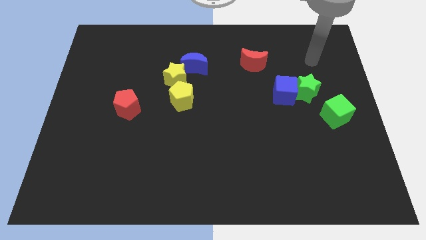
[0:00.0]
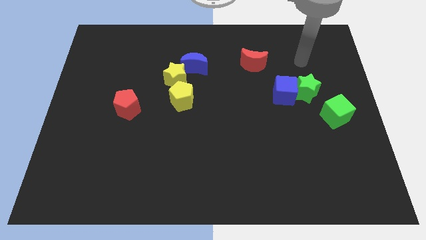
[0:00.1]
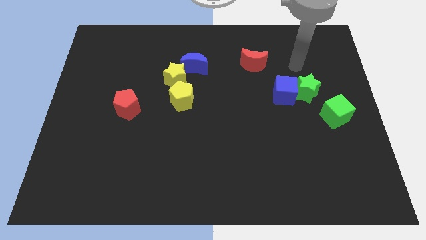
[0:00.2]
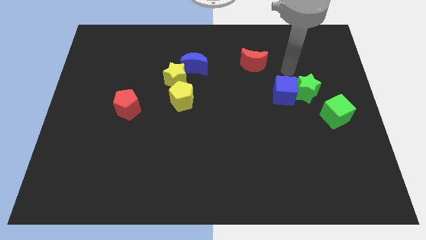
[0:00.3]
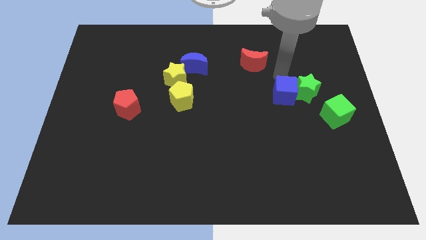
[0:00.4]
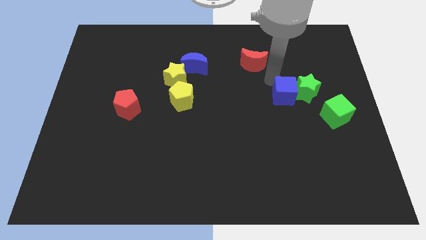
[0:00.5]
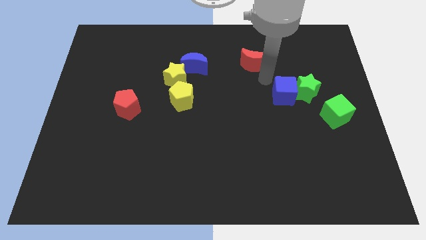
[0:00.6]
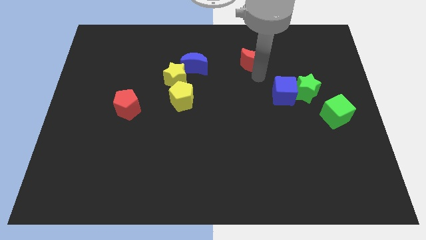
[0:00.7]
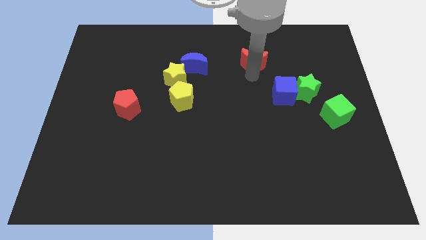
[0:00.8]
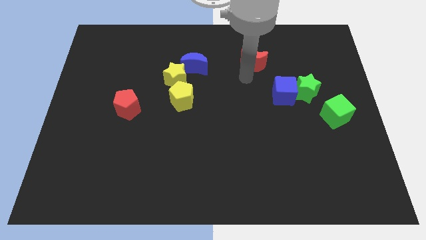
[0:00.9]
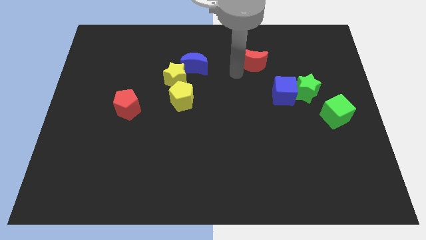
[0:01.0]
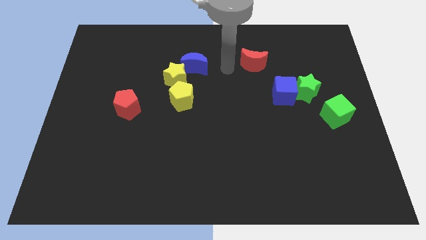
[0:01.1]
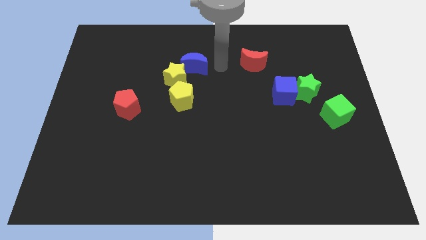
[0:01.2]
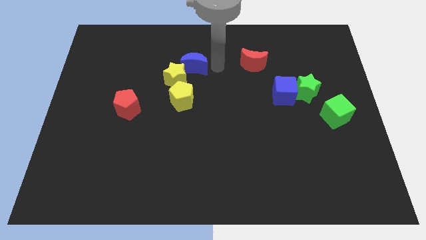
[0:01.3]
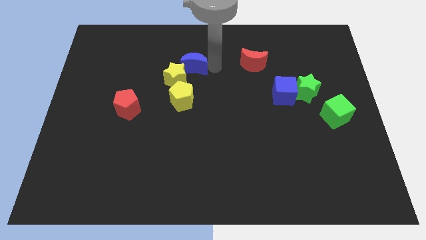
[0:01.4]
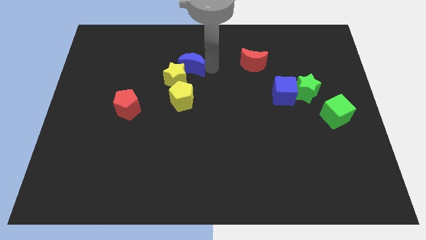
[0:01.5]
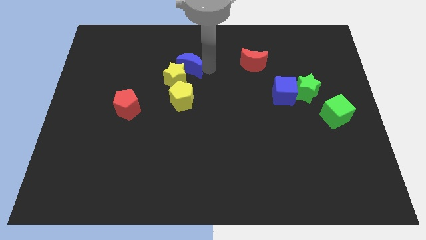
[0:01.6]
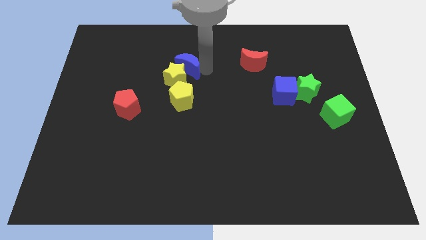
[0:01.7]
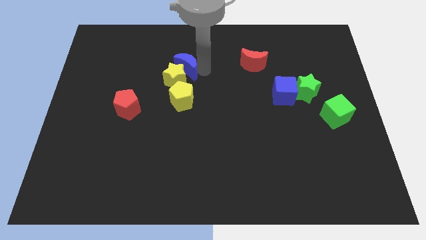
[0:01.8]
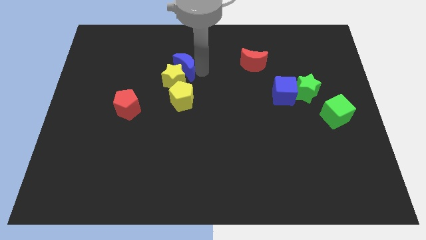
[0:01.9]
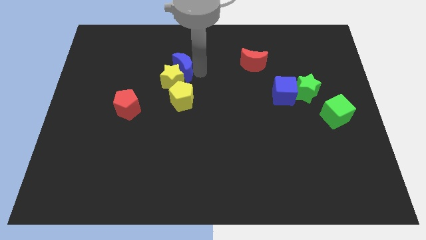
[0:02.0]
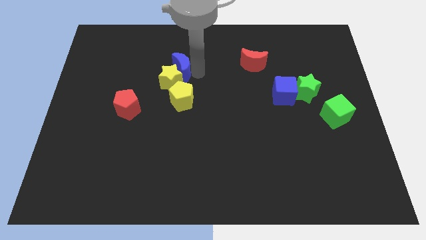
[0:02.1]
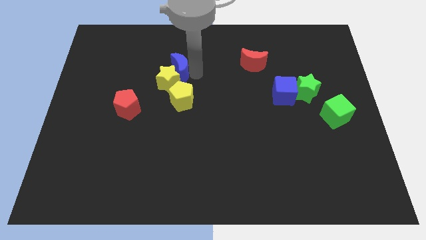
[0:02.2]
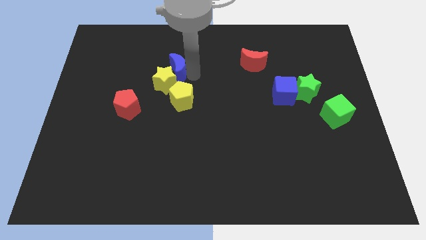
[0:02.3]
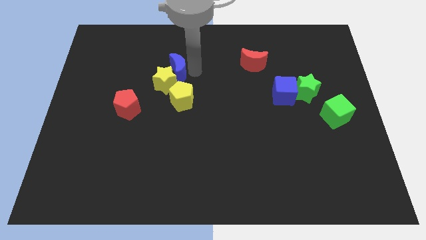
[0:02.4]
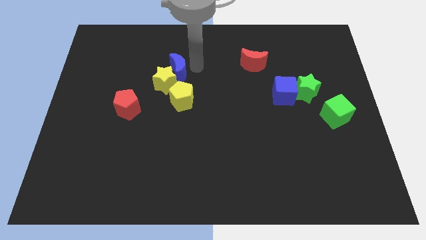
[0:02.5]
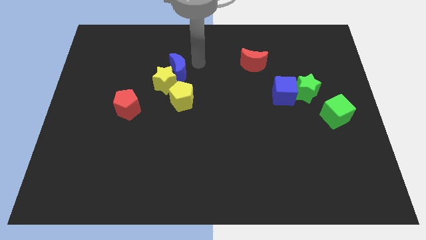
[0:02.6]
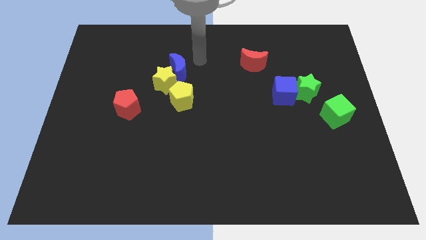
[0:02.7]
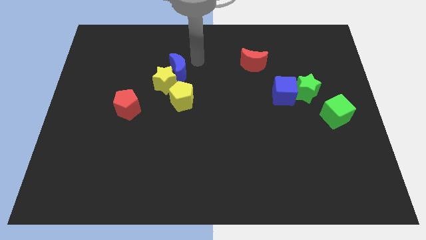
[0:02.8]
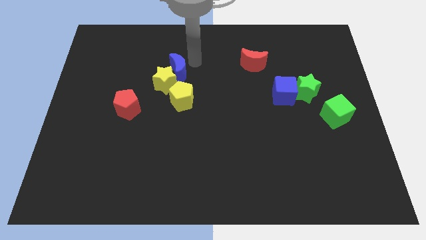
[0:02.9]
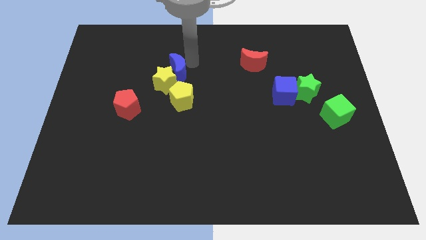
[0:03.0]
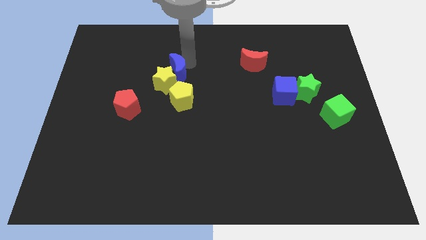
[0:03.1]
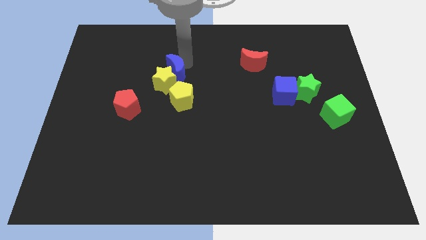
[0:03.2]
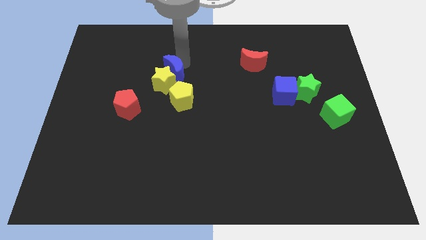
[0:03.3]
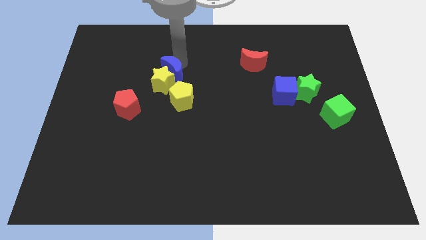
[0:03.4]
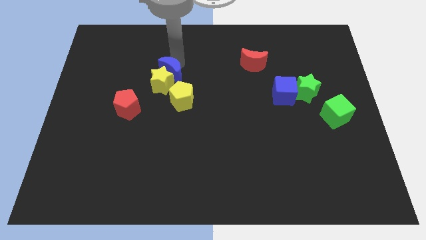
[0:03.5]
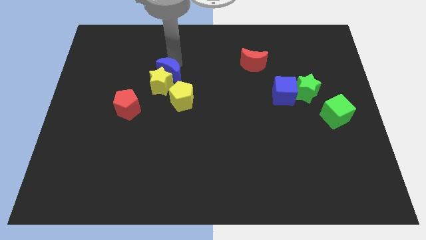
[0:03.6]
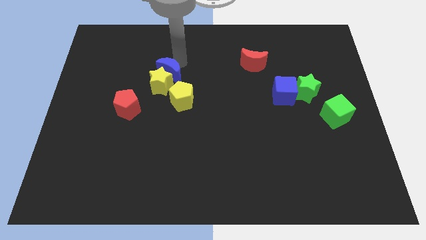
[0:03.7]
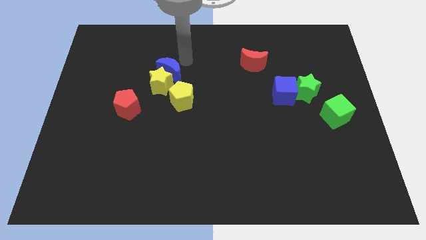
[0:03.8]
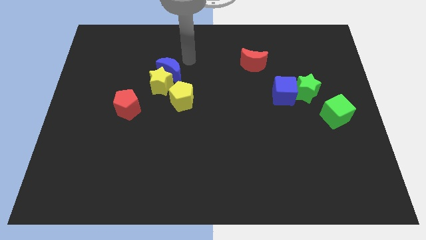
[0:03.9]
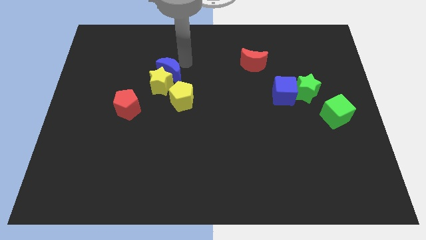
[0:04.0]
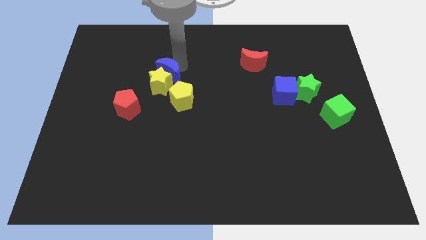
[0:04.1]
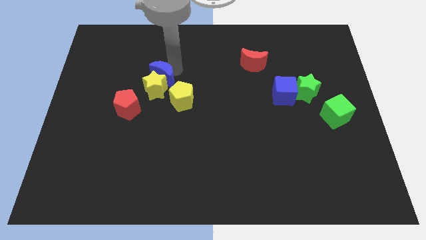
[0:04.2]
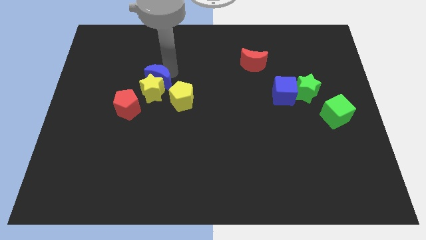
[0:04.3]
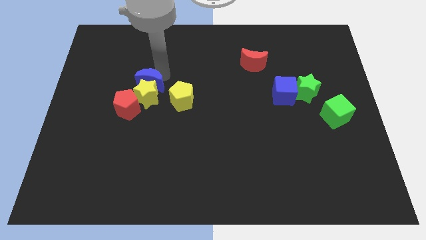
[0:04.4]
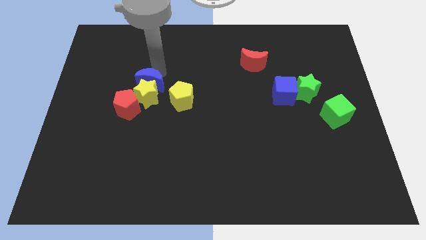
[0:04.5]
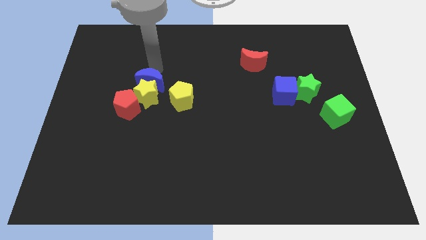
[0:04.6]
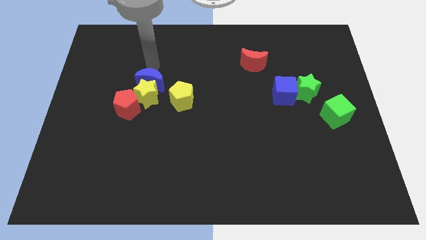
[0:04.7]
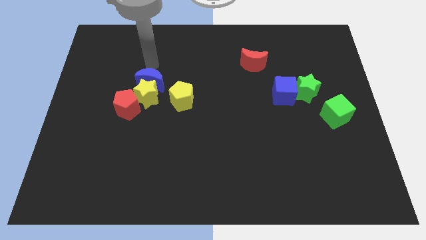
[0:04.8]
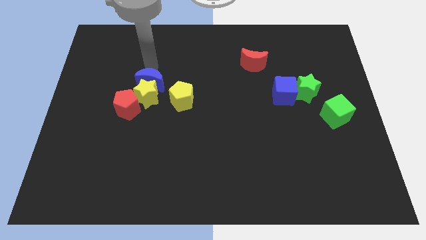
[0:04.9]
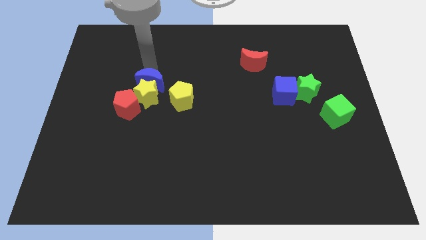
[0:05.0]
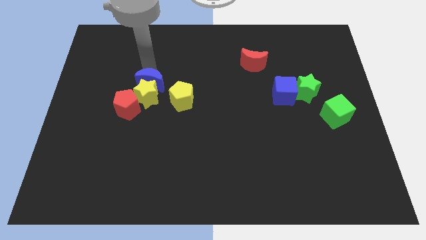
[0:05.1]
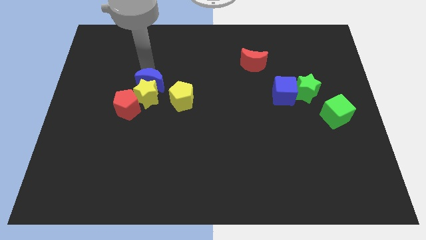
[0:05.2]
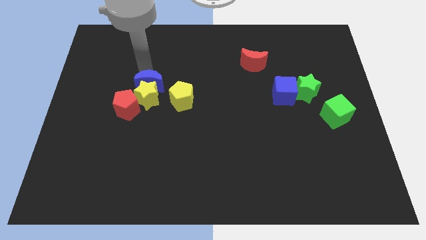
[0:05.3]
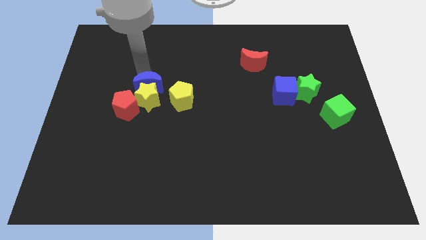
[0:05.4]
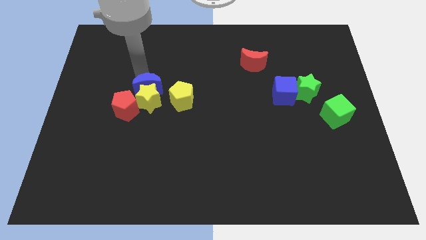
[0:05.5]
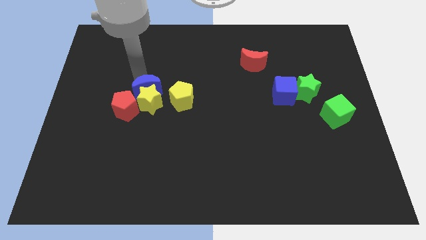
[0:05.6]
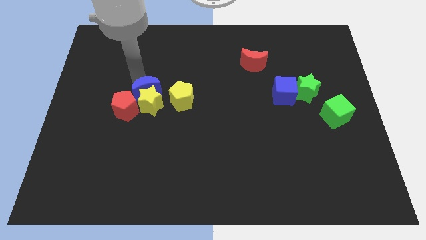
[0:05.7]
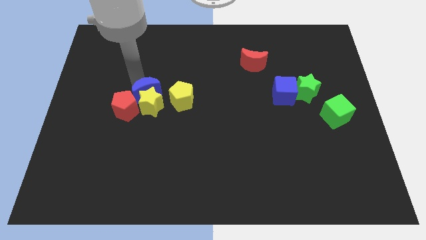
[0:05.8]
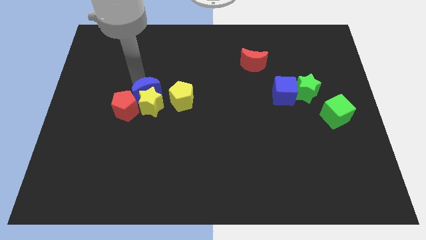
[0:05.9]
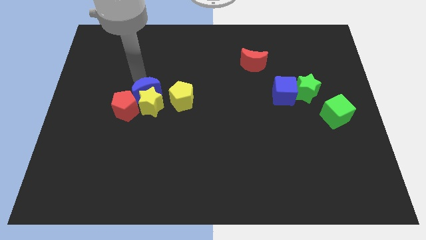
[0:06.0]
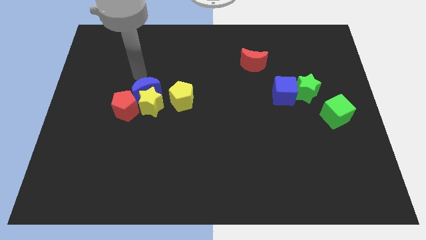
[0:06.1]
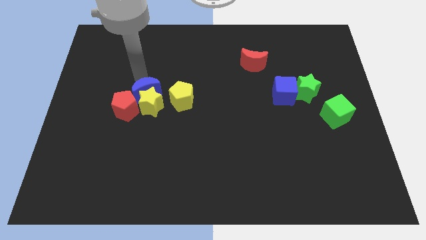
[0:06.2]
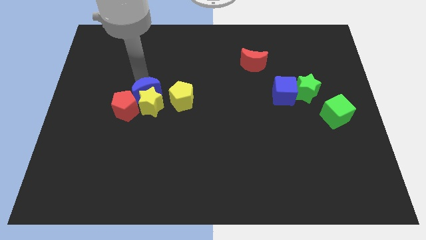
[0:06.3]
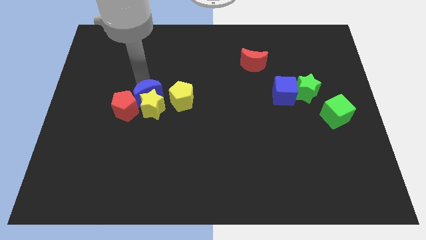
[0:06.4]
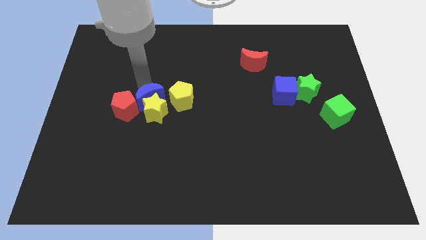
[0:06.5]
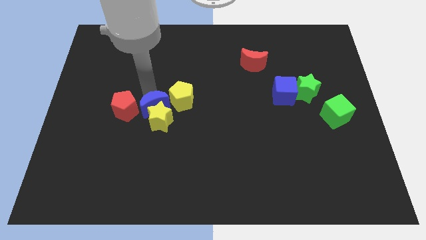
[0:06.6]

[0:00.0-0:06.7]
move the blue moon diagonally down and to the right of the red pentagon

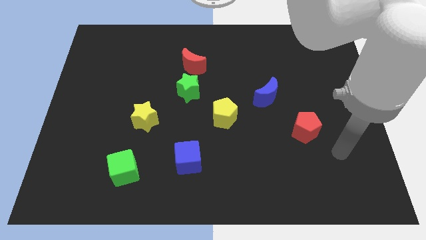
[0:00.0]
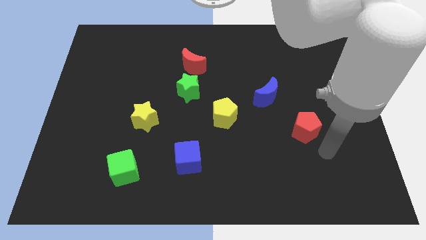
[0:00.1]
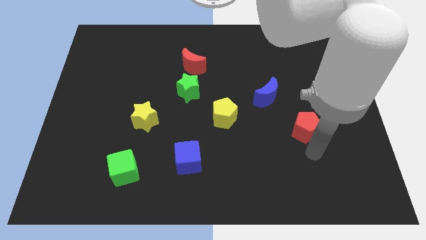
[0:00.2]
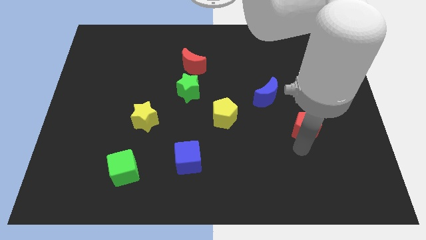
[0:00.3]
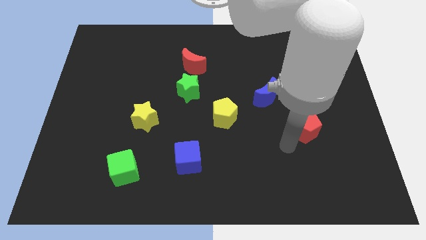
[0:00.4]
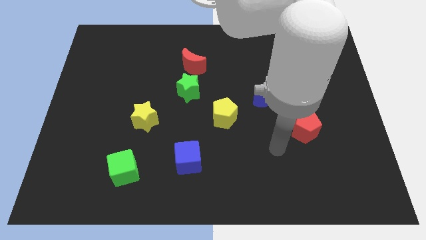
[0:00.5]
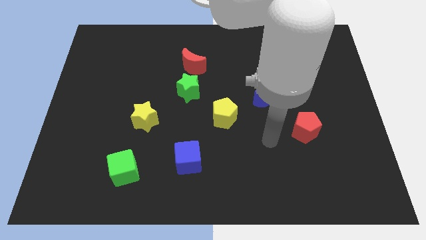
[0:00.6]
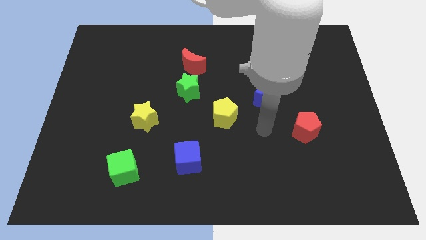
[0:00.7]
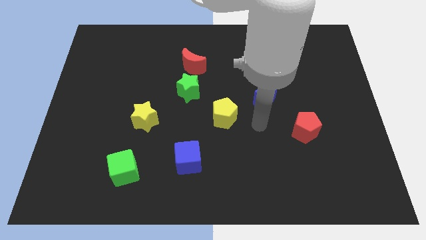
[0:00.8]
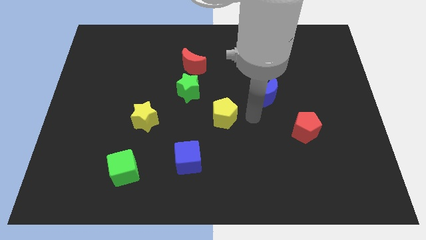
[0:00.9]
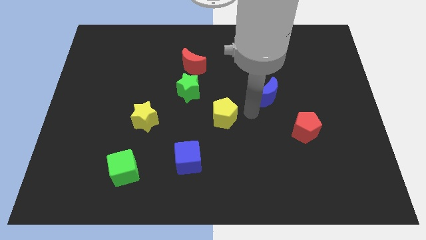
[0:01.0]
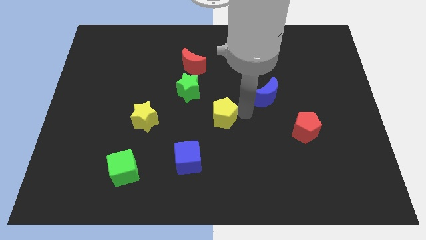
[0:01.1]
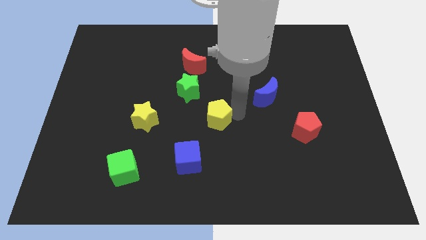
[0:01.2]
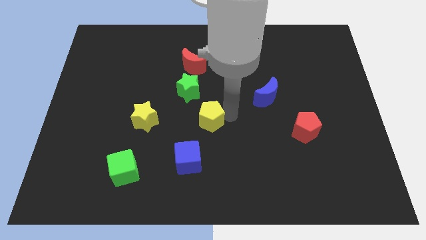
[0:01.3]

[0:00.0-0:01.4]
put the yellow pentagon to the right side of the yellow star
